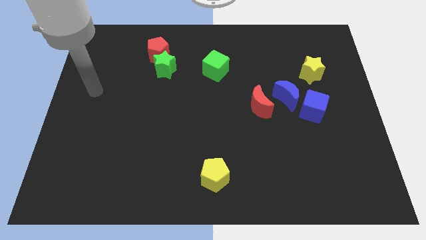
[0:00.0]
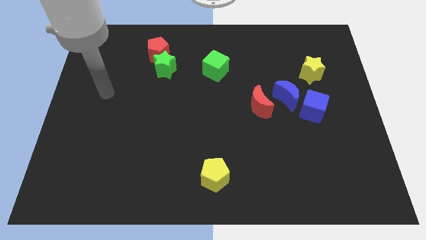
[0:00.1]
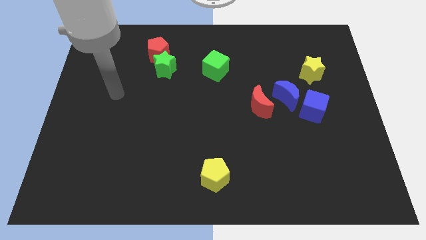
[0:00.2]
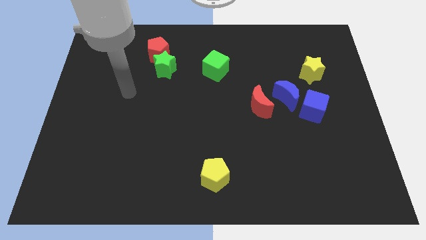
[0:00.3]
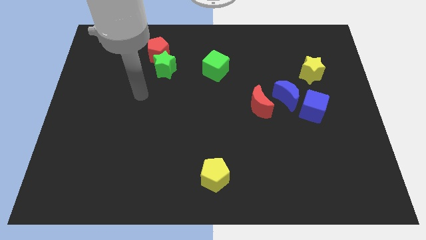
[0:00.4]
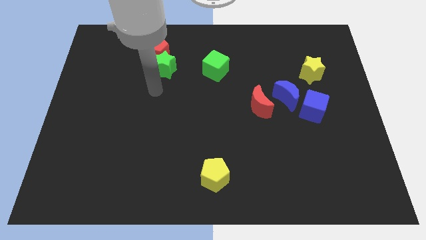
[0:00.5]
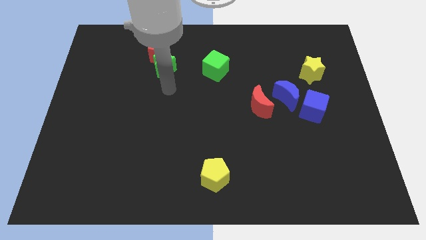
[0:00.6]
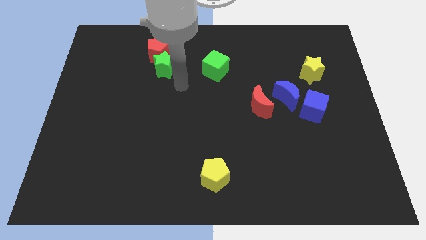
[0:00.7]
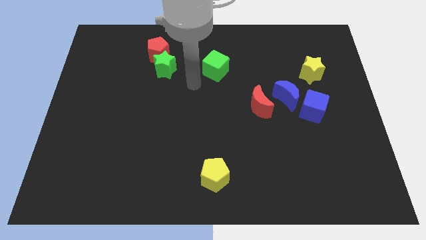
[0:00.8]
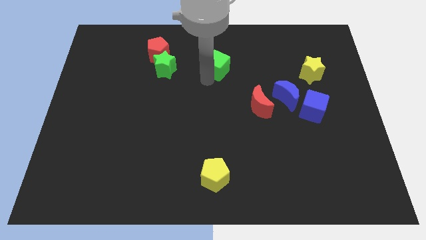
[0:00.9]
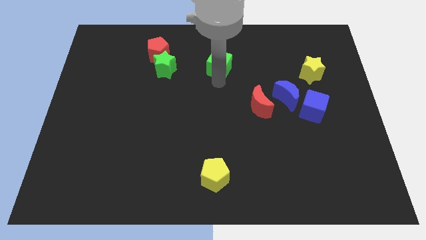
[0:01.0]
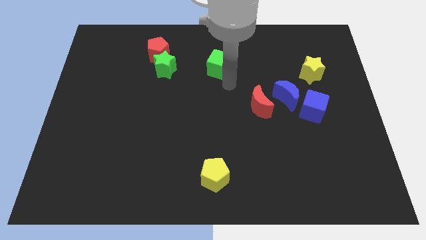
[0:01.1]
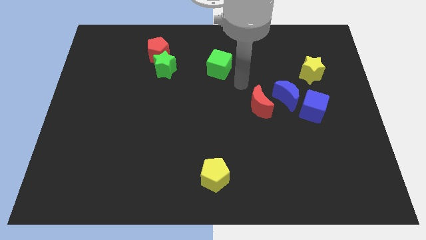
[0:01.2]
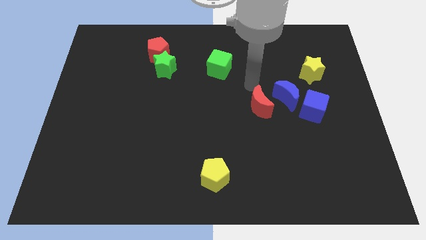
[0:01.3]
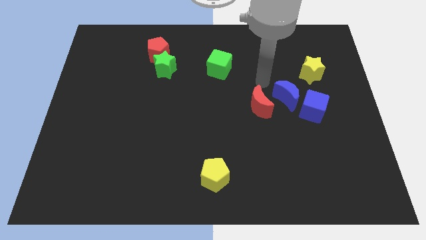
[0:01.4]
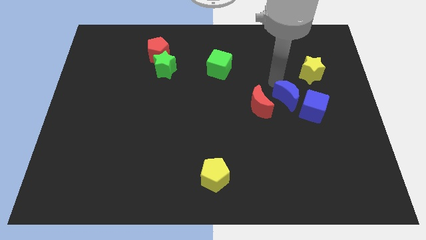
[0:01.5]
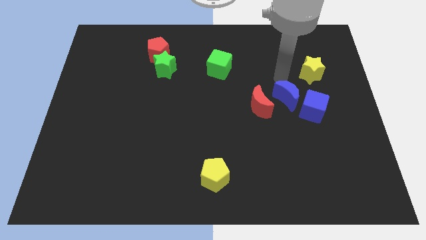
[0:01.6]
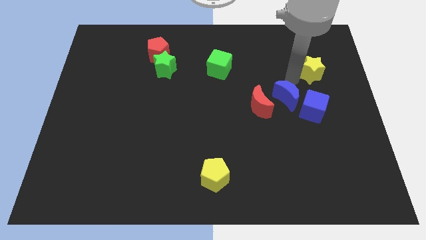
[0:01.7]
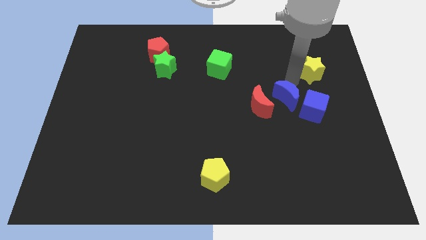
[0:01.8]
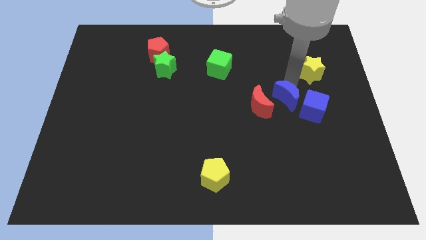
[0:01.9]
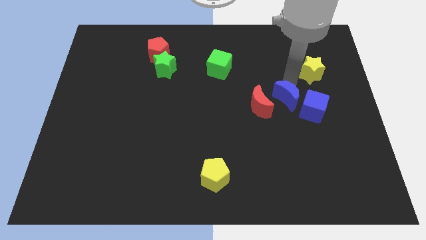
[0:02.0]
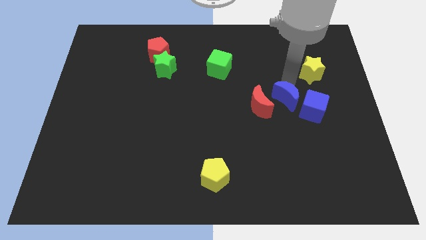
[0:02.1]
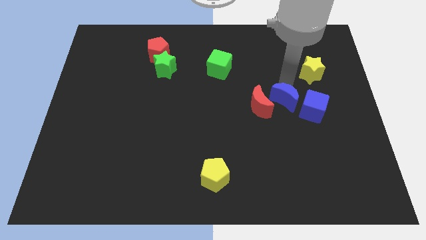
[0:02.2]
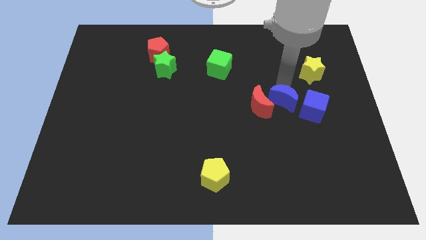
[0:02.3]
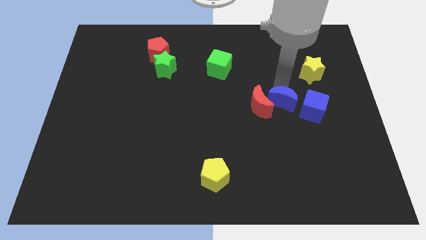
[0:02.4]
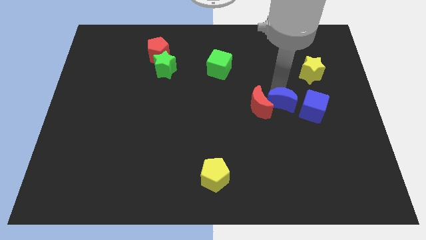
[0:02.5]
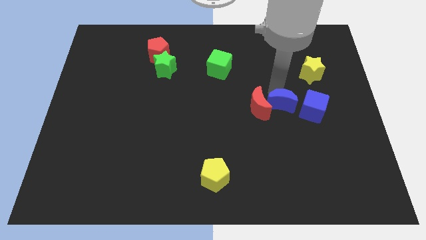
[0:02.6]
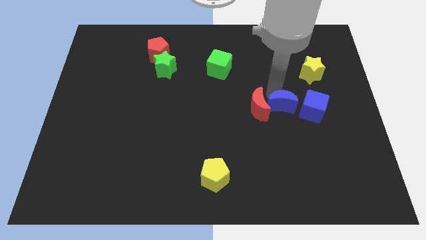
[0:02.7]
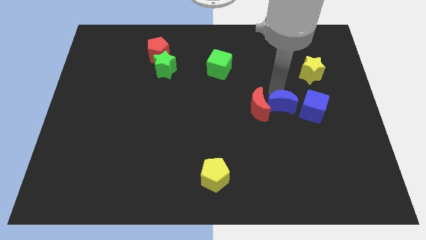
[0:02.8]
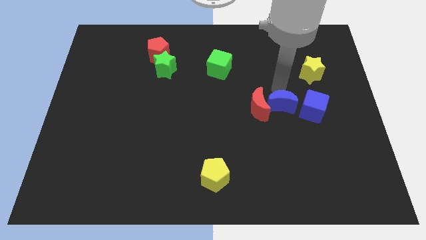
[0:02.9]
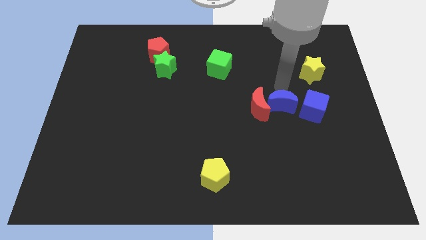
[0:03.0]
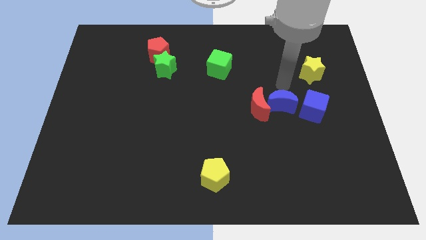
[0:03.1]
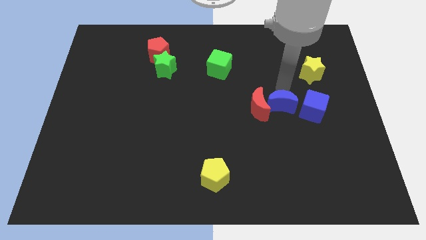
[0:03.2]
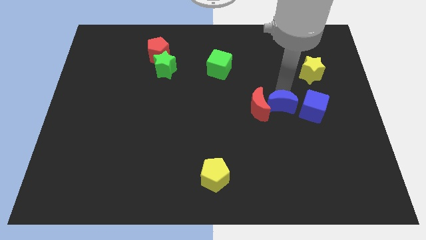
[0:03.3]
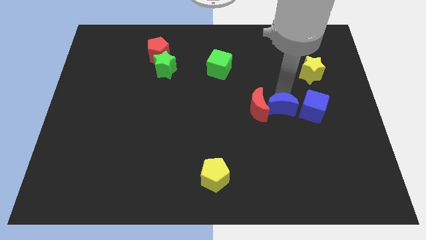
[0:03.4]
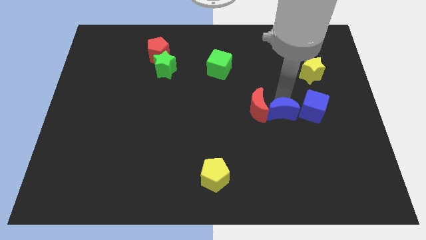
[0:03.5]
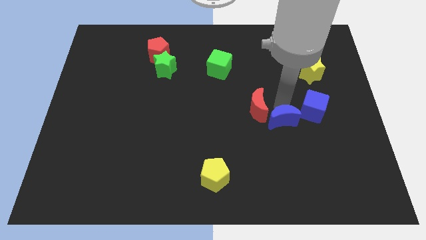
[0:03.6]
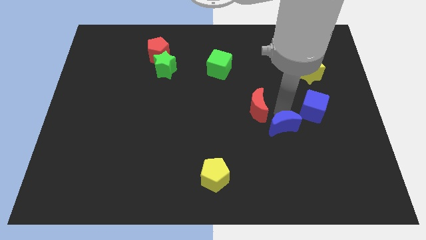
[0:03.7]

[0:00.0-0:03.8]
push the blue moon down somewhat

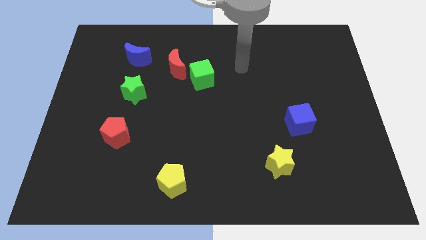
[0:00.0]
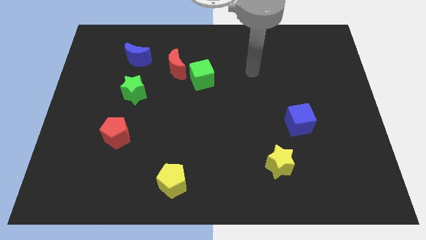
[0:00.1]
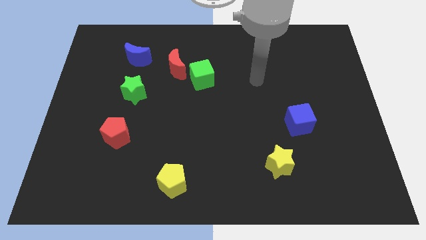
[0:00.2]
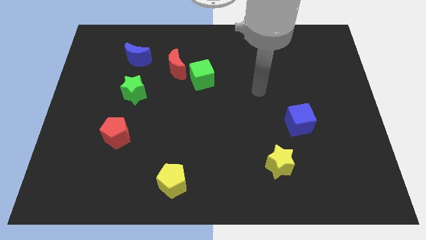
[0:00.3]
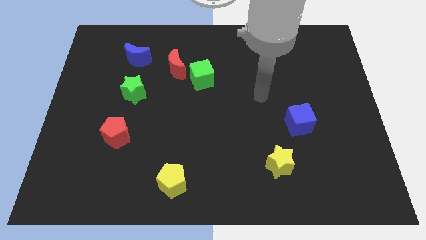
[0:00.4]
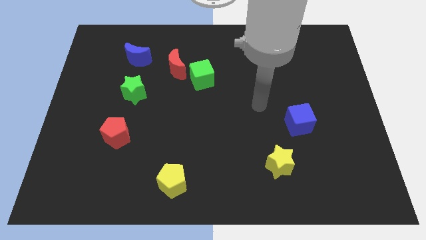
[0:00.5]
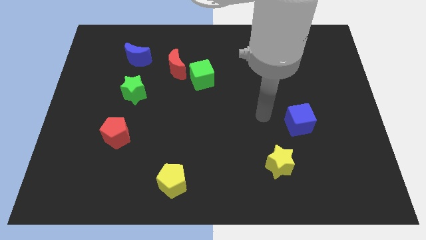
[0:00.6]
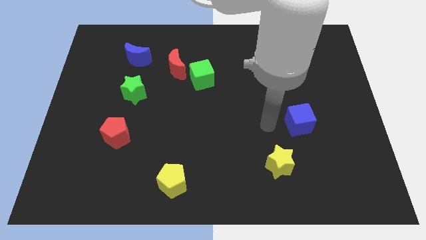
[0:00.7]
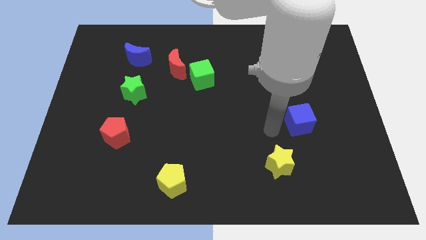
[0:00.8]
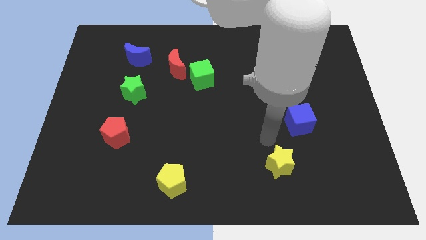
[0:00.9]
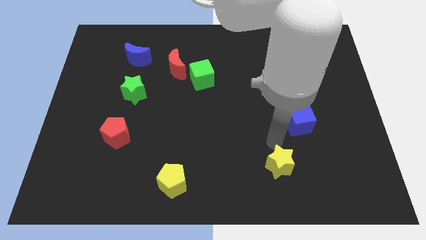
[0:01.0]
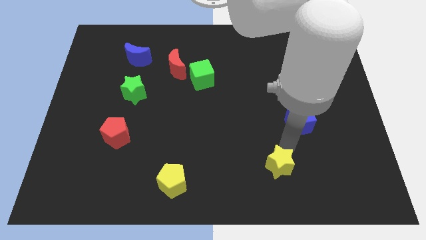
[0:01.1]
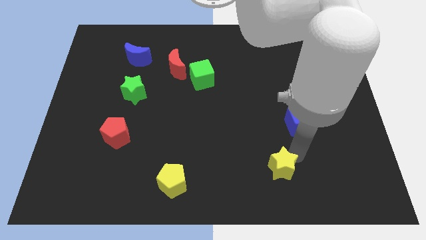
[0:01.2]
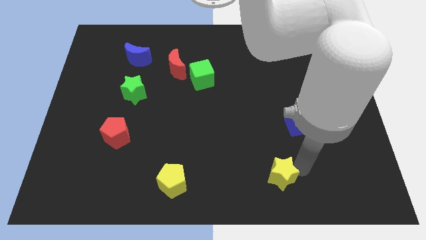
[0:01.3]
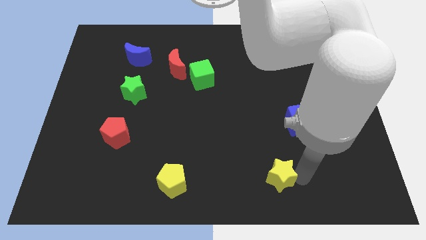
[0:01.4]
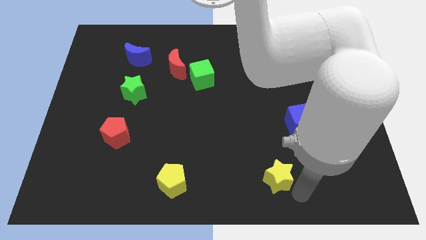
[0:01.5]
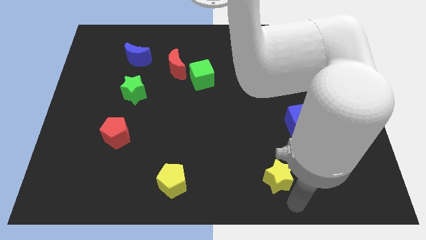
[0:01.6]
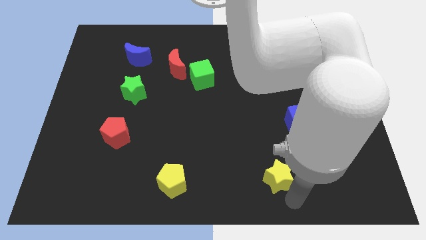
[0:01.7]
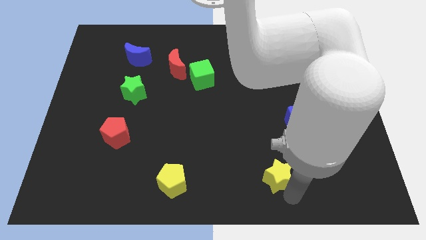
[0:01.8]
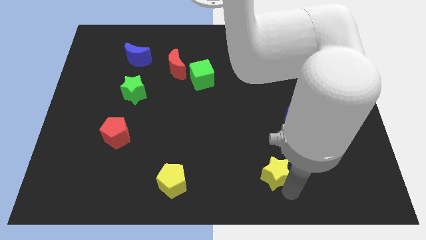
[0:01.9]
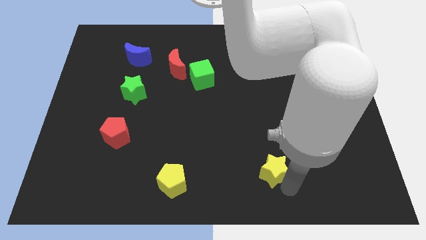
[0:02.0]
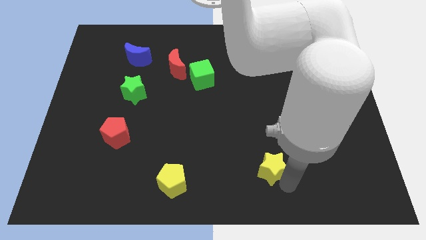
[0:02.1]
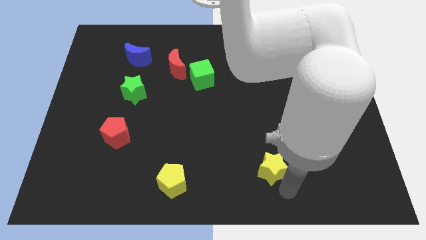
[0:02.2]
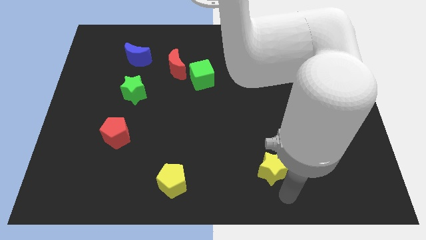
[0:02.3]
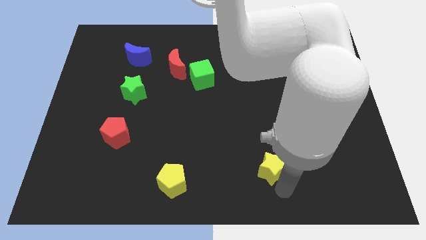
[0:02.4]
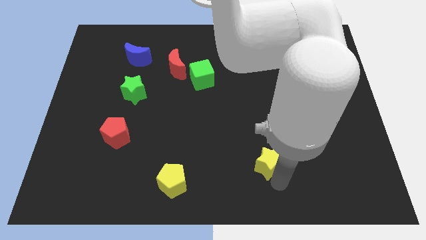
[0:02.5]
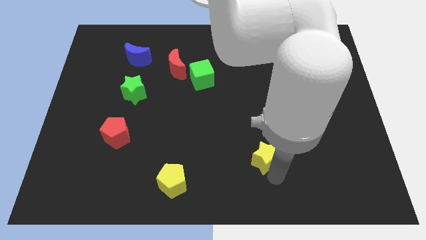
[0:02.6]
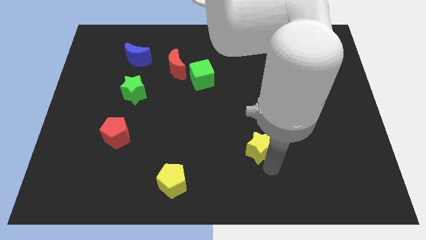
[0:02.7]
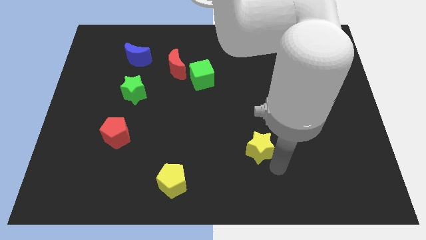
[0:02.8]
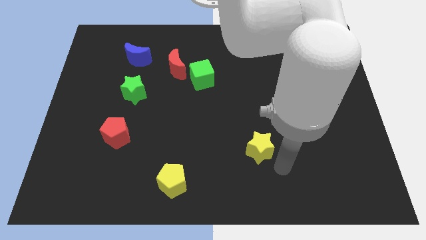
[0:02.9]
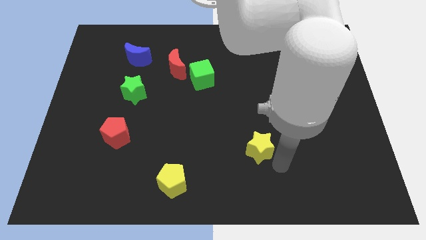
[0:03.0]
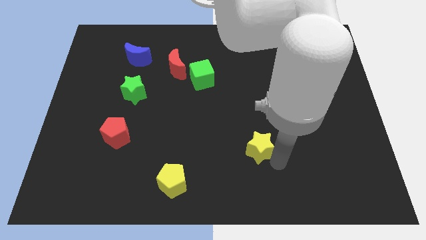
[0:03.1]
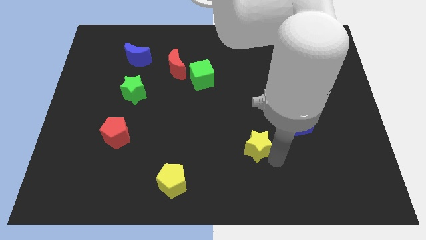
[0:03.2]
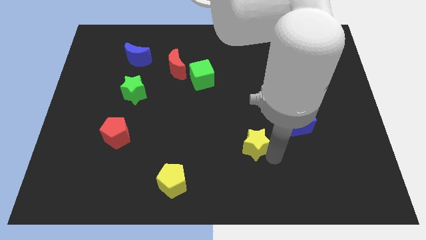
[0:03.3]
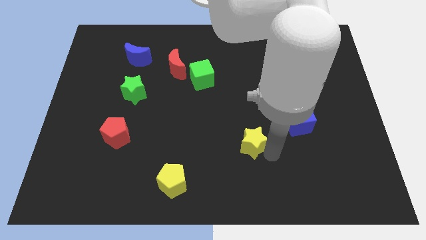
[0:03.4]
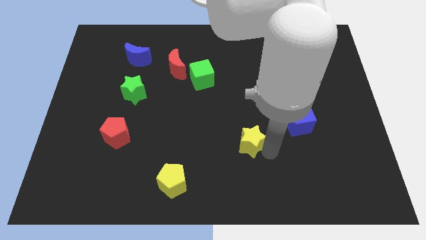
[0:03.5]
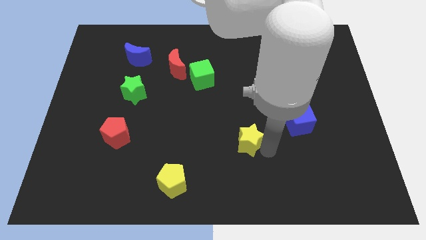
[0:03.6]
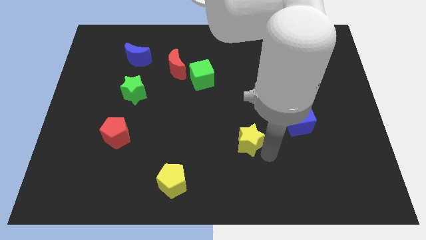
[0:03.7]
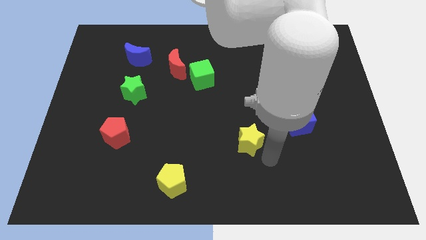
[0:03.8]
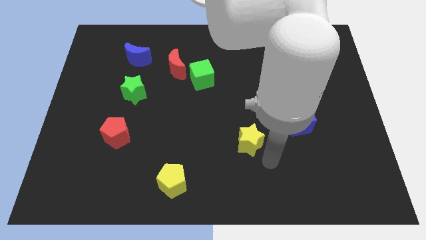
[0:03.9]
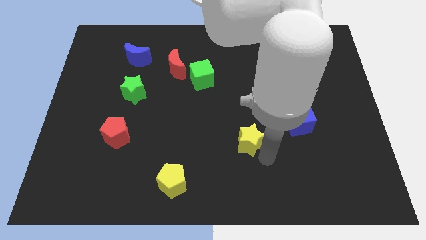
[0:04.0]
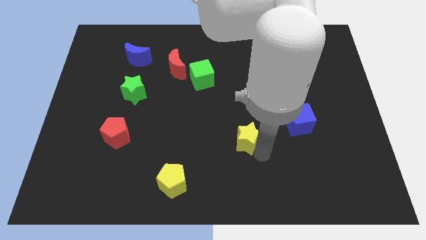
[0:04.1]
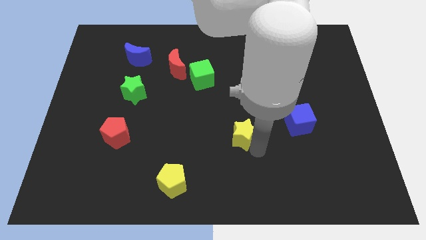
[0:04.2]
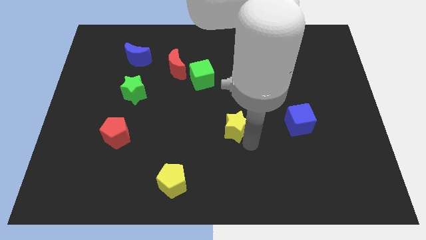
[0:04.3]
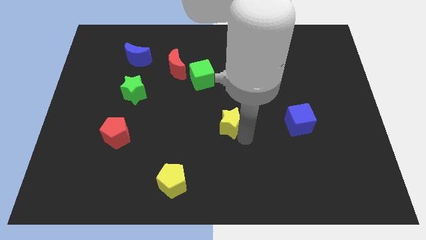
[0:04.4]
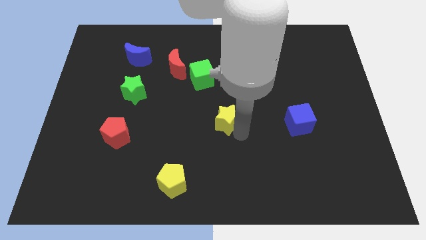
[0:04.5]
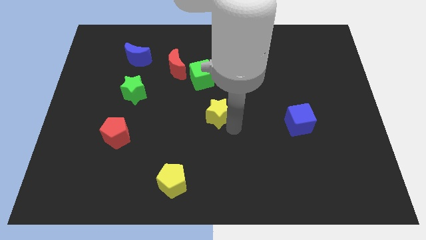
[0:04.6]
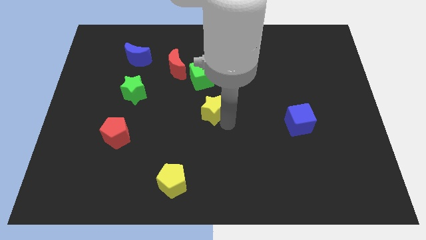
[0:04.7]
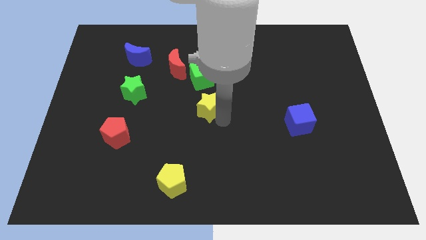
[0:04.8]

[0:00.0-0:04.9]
push the yellow star upwards and left
